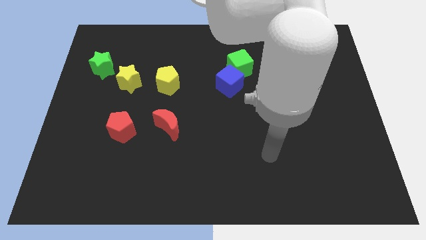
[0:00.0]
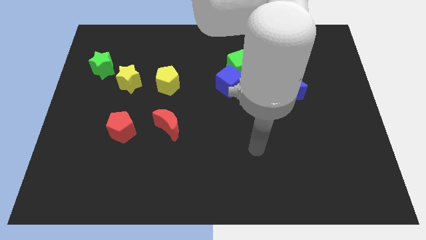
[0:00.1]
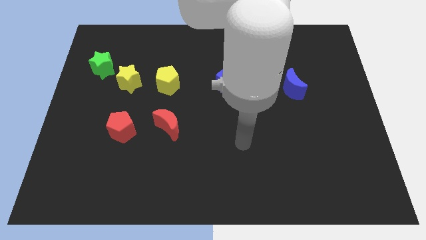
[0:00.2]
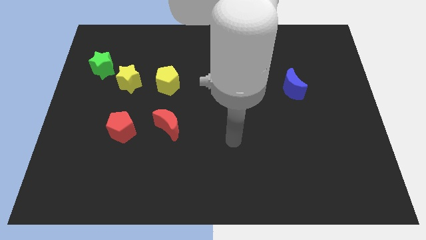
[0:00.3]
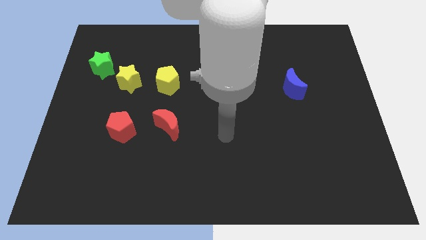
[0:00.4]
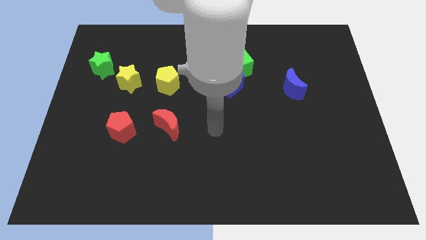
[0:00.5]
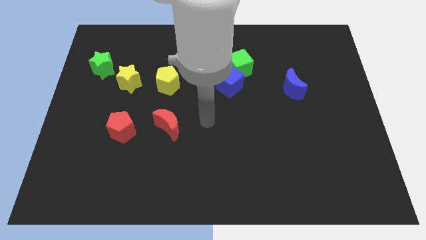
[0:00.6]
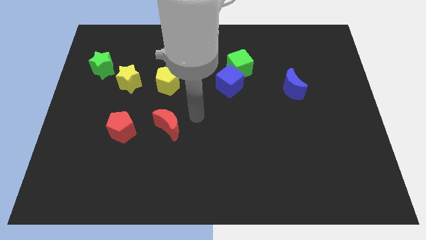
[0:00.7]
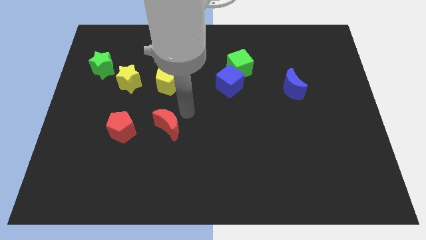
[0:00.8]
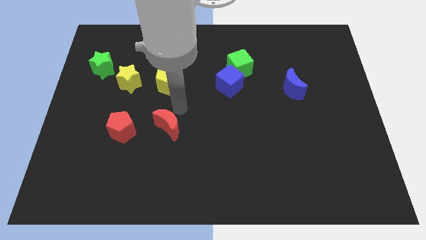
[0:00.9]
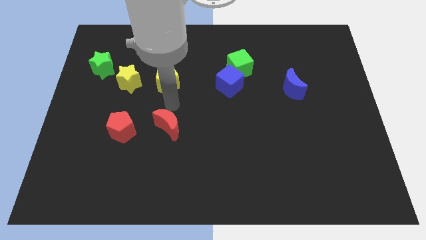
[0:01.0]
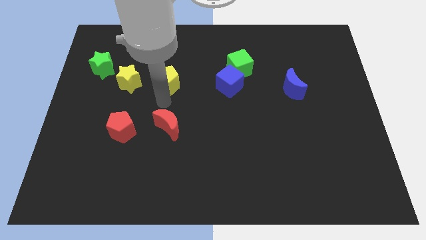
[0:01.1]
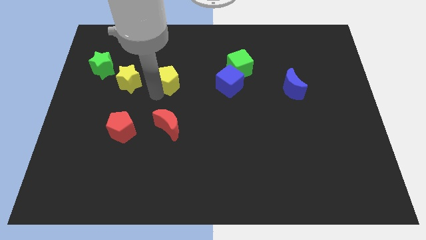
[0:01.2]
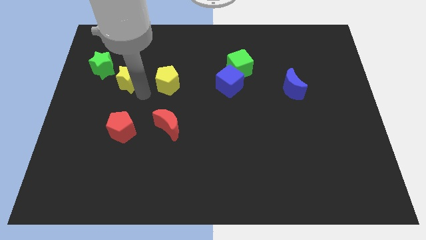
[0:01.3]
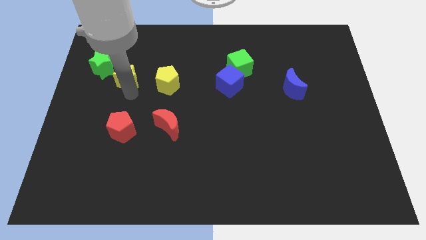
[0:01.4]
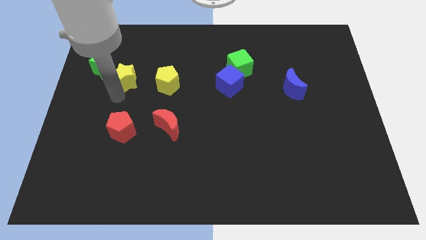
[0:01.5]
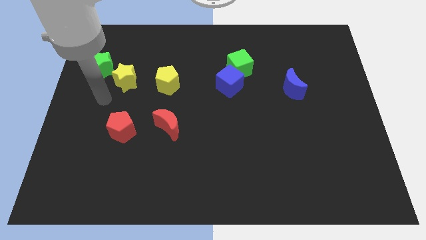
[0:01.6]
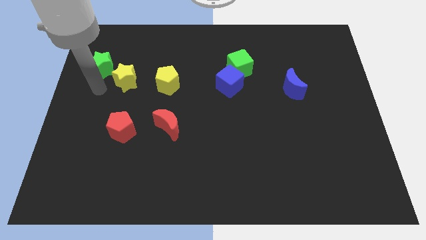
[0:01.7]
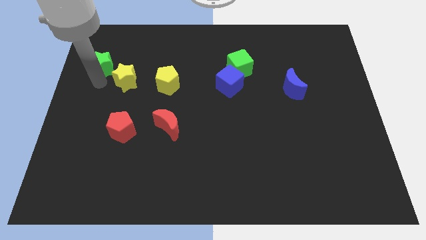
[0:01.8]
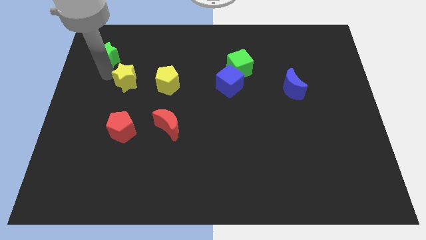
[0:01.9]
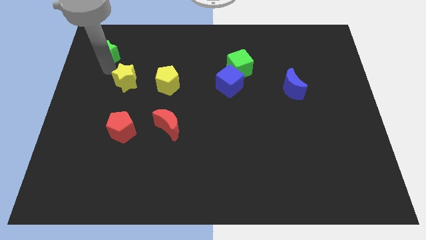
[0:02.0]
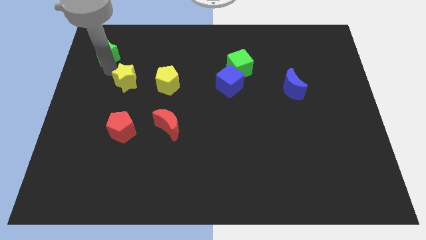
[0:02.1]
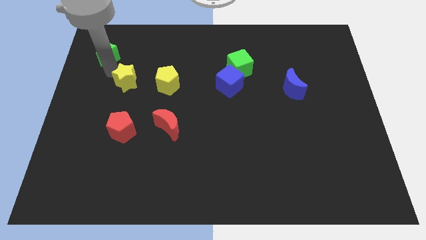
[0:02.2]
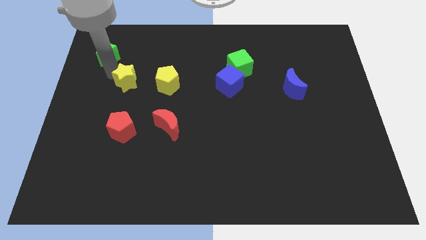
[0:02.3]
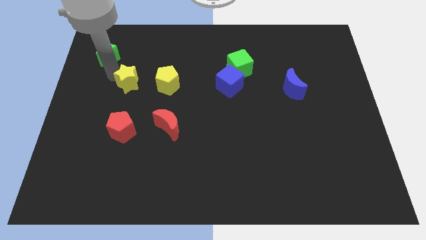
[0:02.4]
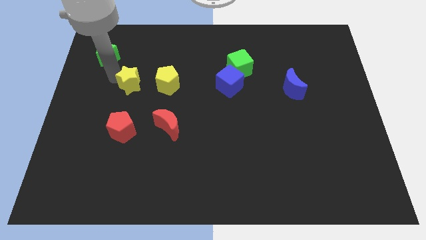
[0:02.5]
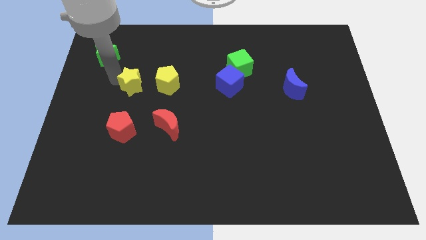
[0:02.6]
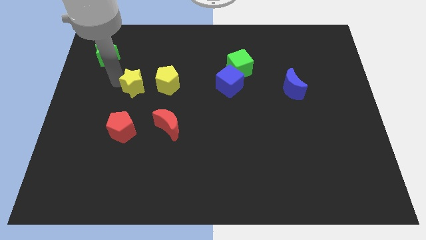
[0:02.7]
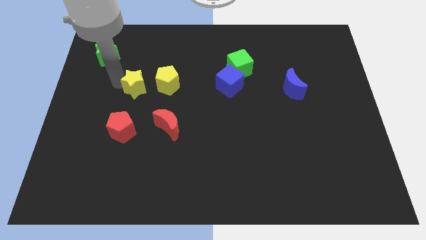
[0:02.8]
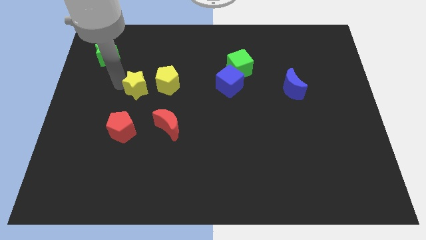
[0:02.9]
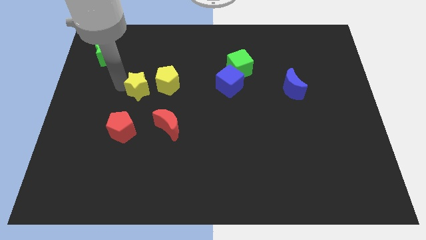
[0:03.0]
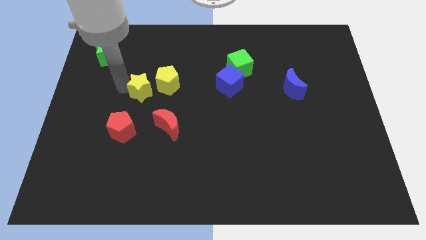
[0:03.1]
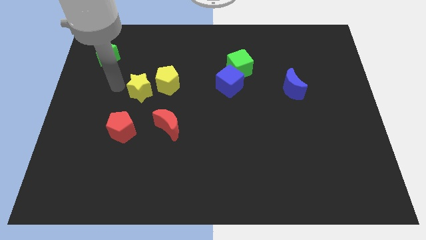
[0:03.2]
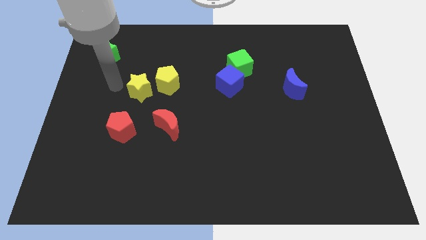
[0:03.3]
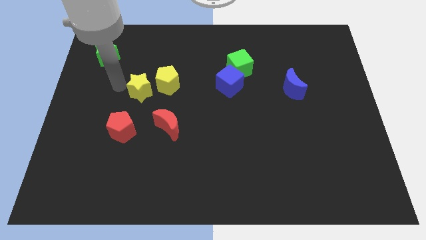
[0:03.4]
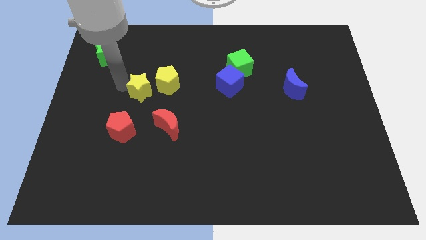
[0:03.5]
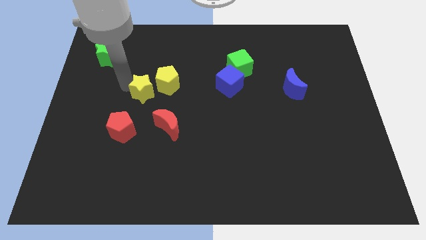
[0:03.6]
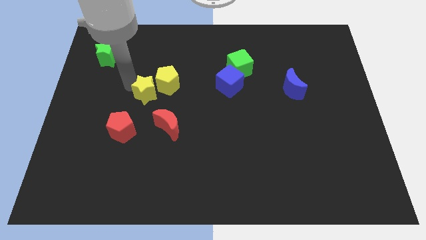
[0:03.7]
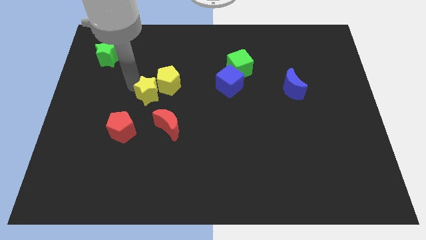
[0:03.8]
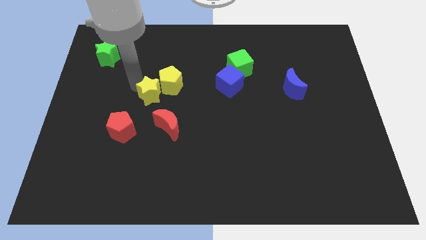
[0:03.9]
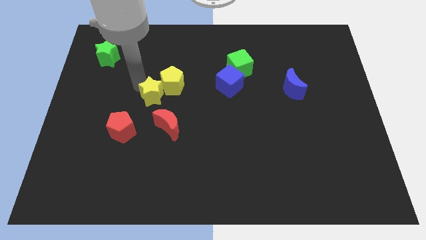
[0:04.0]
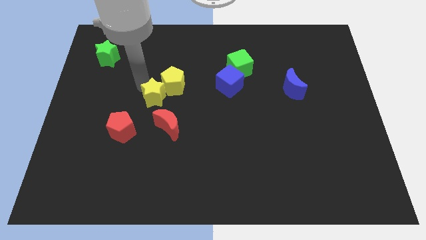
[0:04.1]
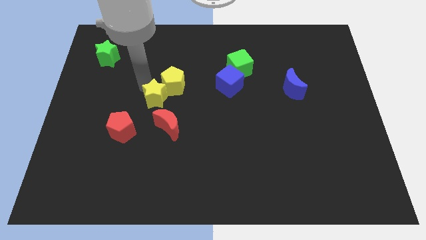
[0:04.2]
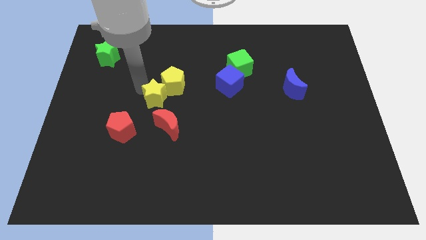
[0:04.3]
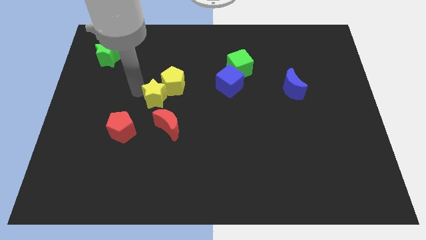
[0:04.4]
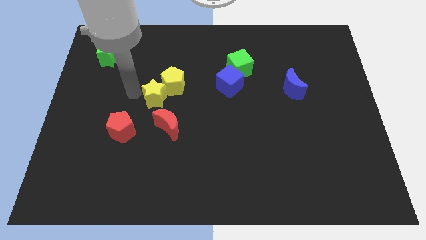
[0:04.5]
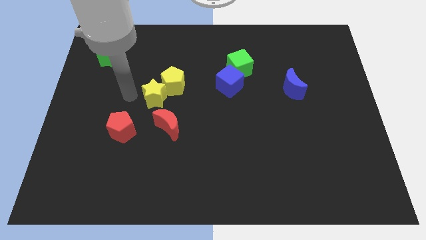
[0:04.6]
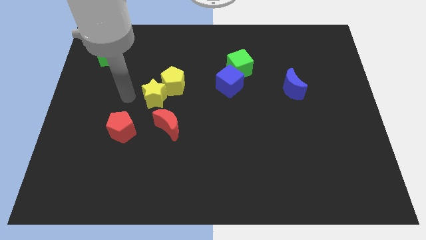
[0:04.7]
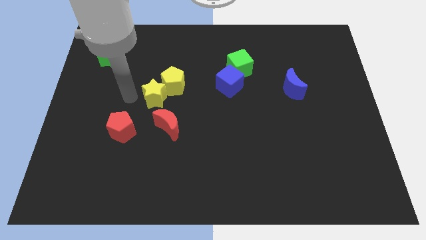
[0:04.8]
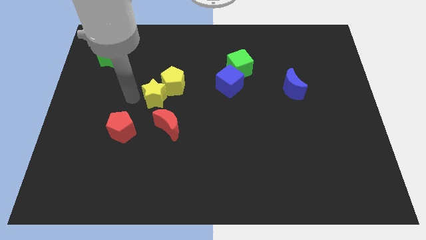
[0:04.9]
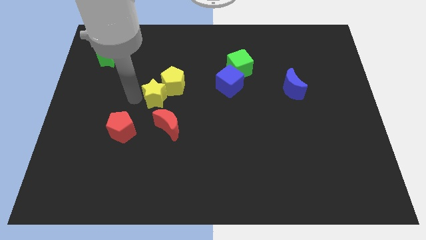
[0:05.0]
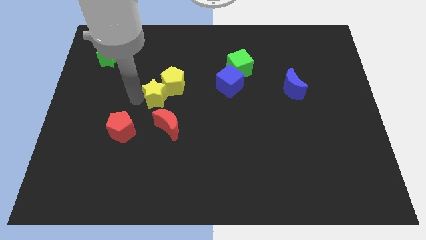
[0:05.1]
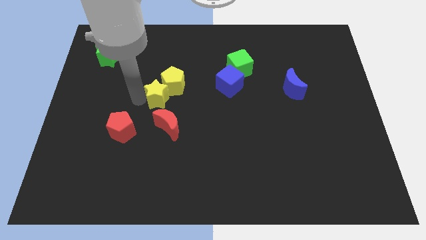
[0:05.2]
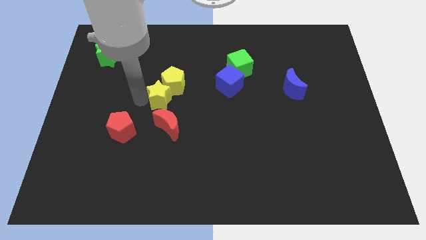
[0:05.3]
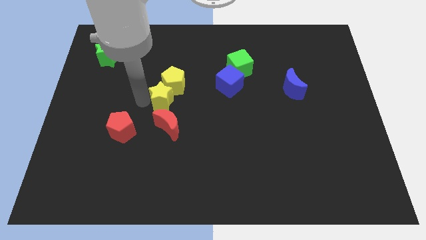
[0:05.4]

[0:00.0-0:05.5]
move the yellow star to the center

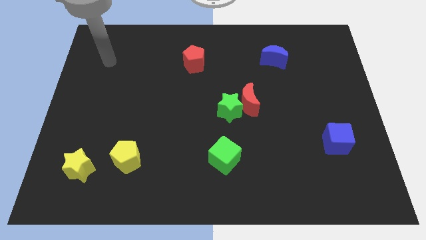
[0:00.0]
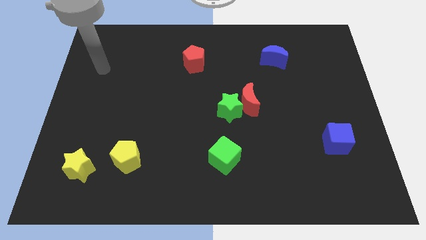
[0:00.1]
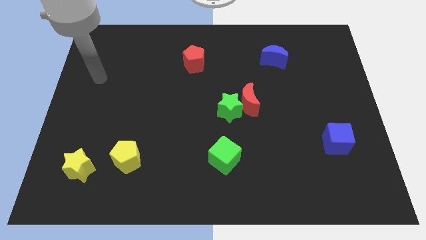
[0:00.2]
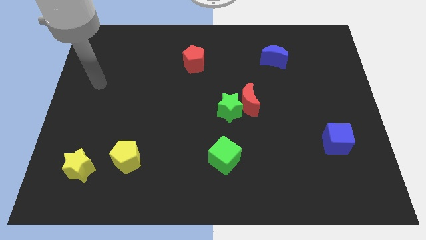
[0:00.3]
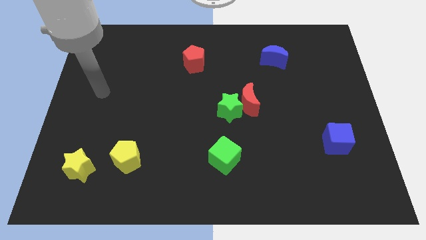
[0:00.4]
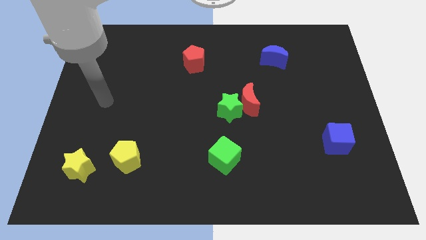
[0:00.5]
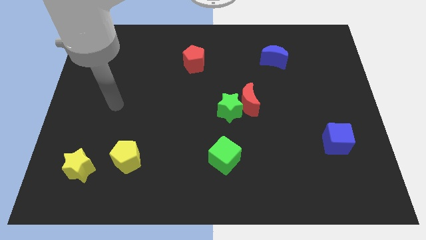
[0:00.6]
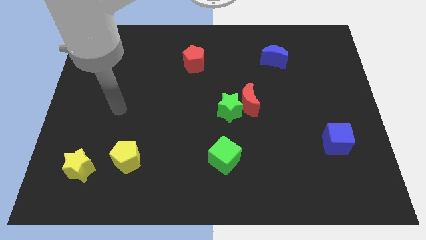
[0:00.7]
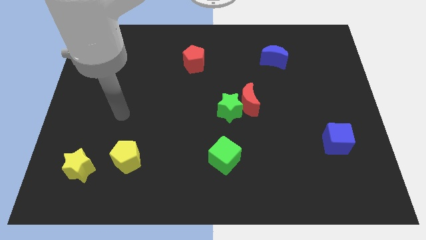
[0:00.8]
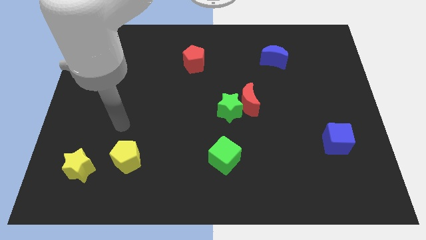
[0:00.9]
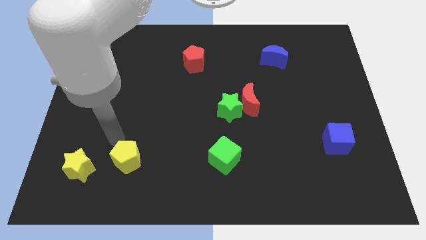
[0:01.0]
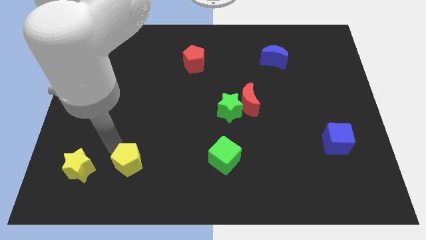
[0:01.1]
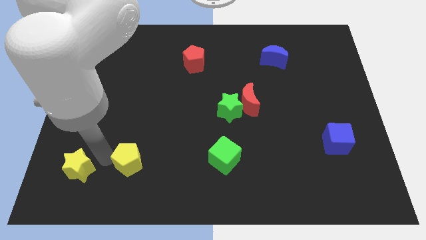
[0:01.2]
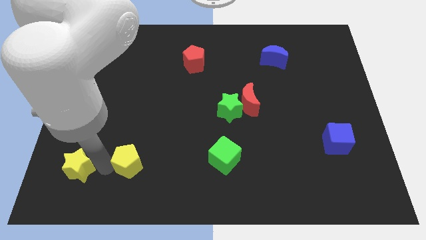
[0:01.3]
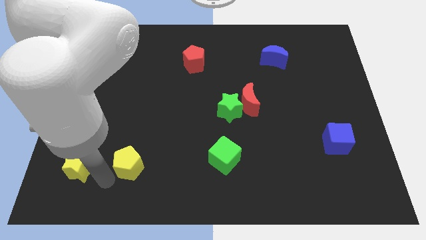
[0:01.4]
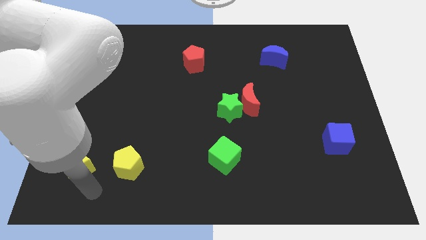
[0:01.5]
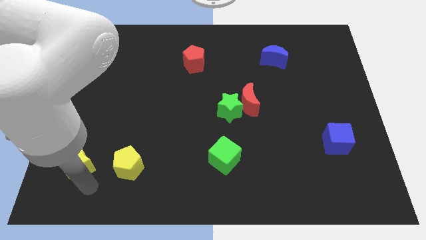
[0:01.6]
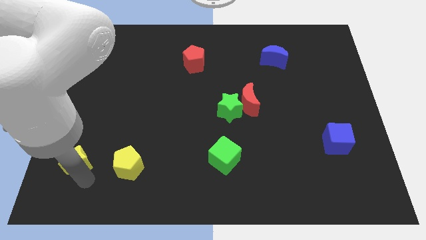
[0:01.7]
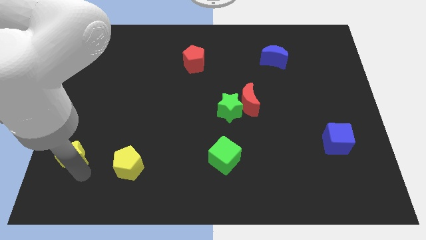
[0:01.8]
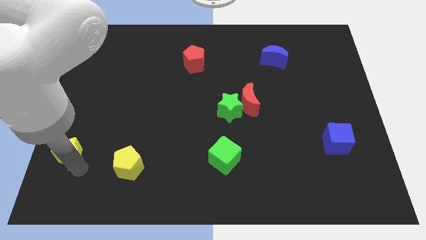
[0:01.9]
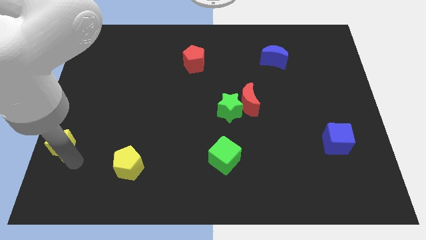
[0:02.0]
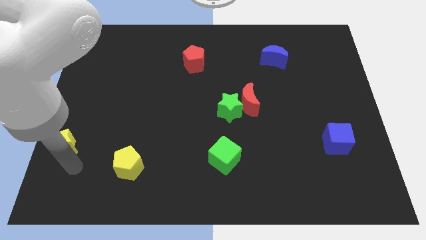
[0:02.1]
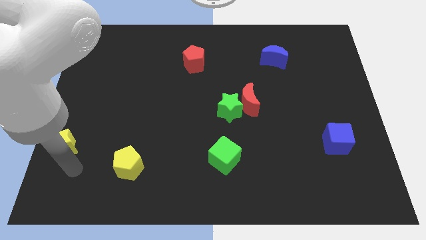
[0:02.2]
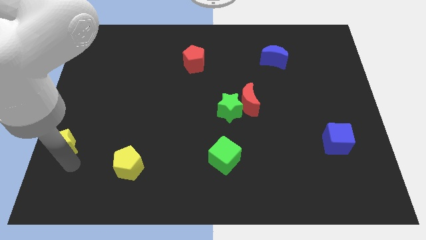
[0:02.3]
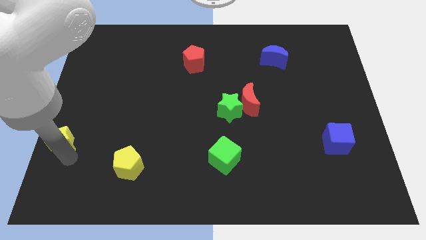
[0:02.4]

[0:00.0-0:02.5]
move the yellow star to the center left
